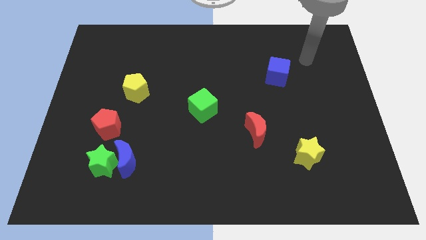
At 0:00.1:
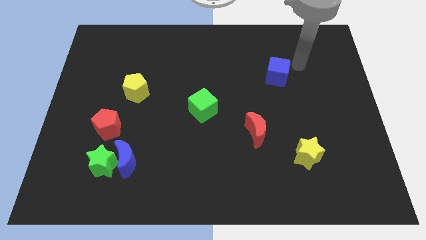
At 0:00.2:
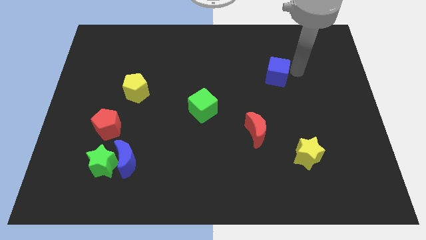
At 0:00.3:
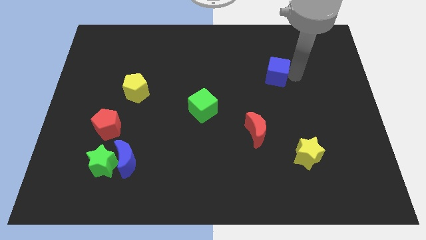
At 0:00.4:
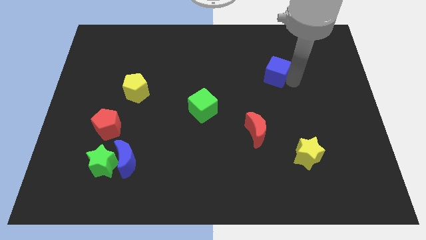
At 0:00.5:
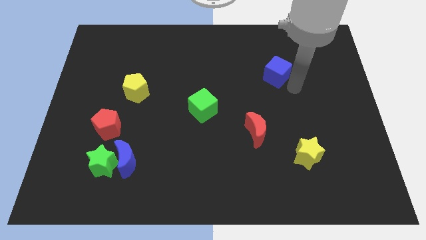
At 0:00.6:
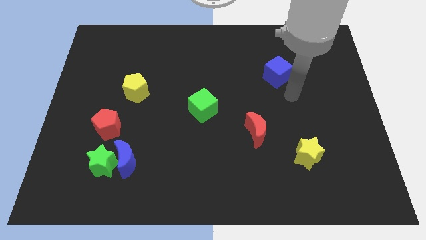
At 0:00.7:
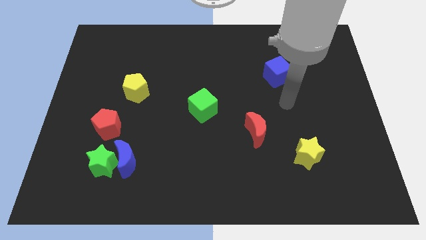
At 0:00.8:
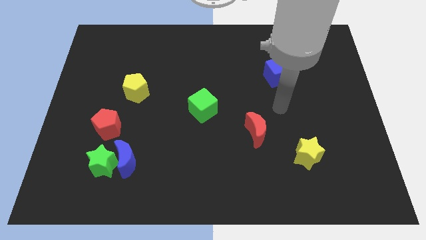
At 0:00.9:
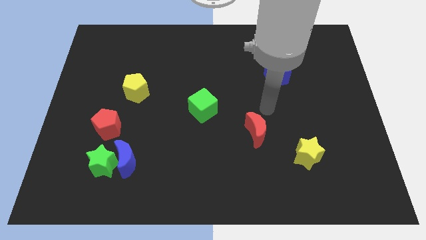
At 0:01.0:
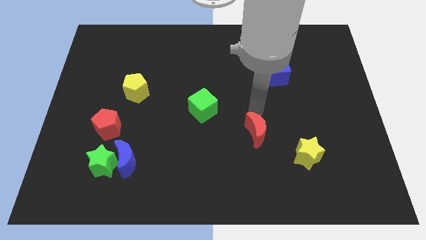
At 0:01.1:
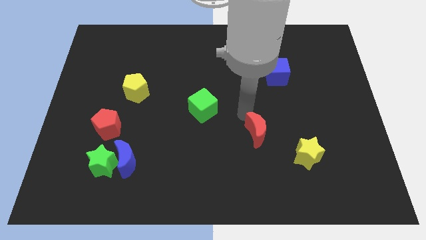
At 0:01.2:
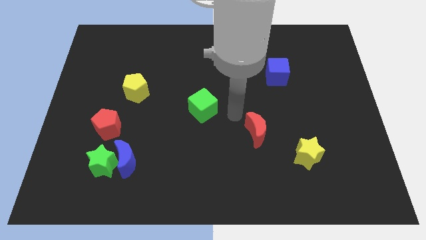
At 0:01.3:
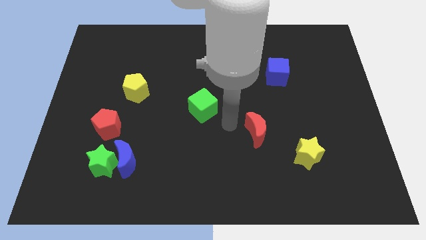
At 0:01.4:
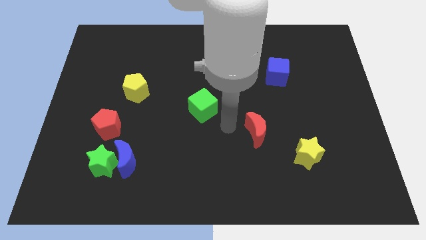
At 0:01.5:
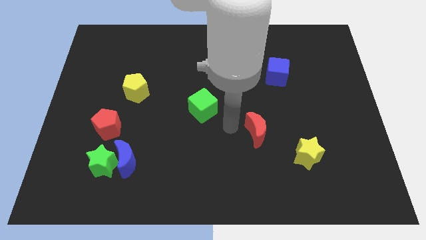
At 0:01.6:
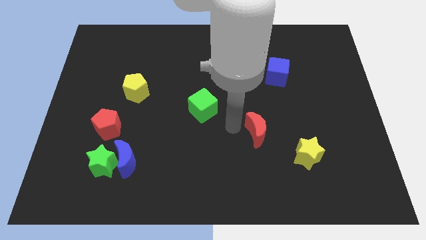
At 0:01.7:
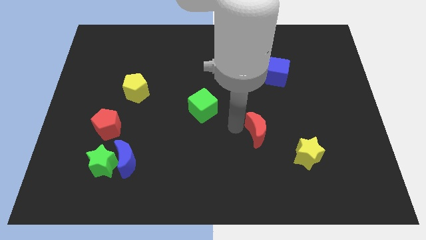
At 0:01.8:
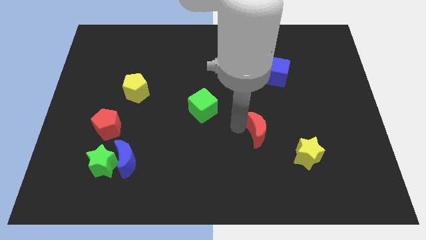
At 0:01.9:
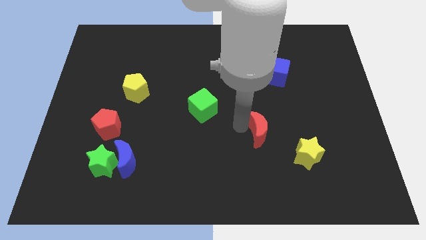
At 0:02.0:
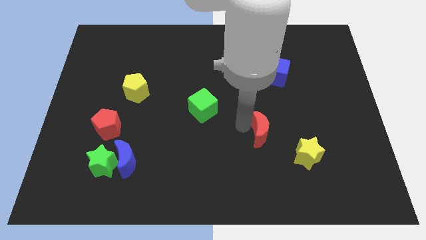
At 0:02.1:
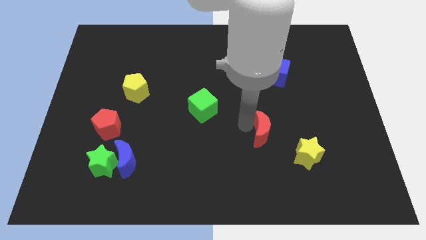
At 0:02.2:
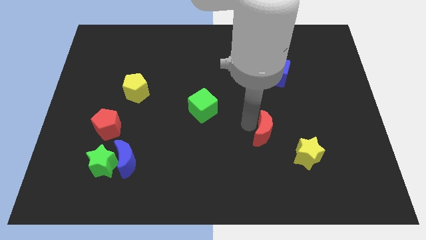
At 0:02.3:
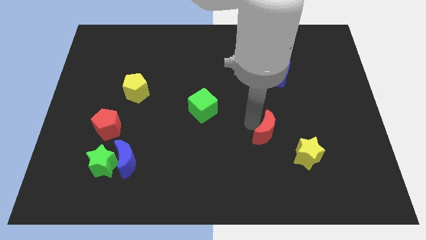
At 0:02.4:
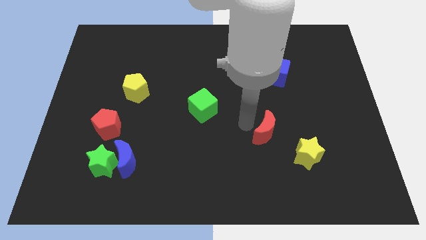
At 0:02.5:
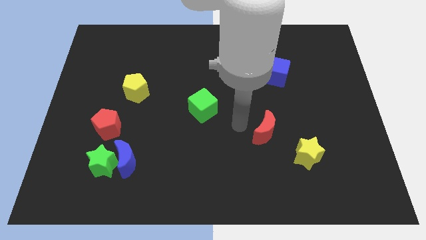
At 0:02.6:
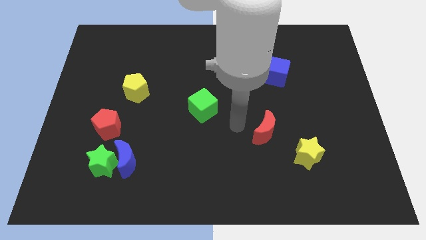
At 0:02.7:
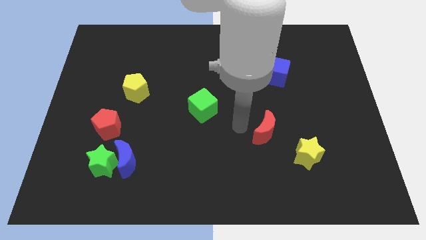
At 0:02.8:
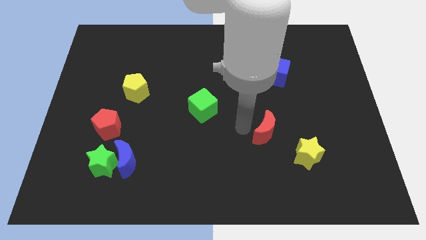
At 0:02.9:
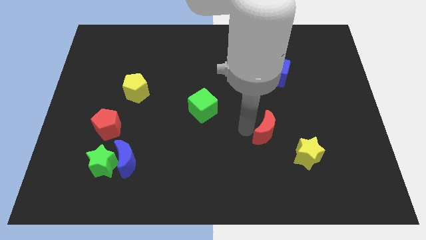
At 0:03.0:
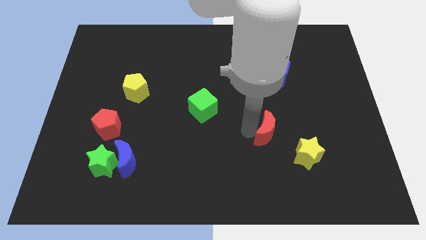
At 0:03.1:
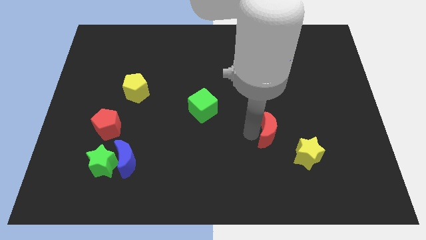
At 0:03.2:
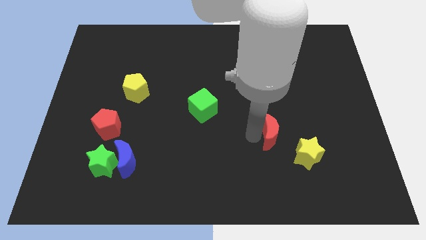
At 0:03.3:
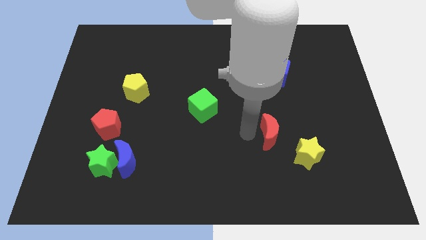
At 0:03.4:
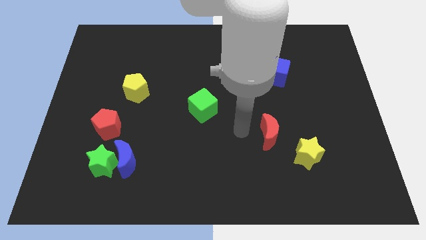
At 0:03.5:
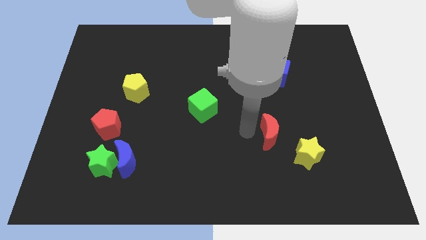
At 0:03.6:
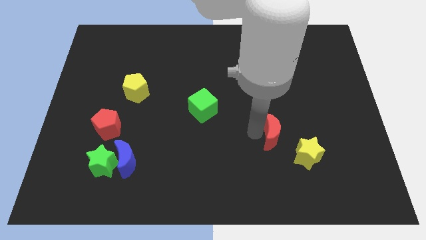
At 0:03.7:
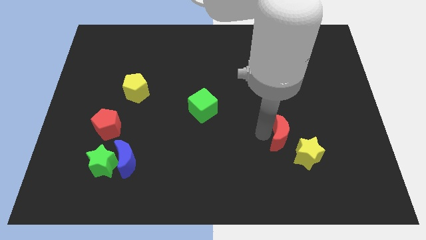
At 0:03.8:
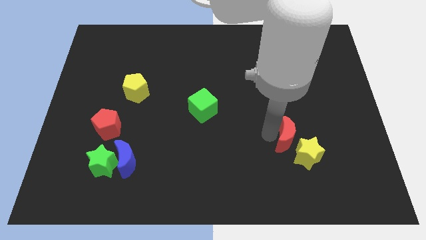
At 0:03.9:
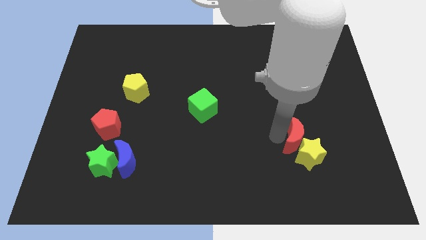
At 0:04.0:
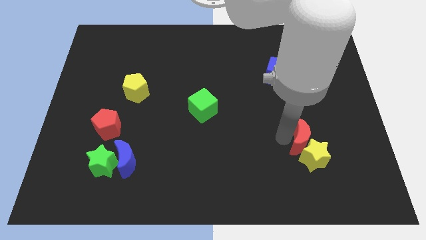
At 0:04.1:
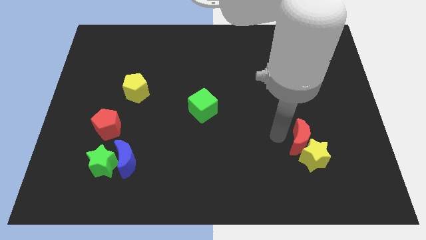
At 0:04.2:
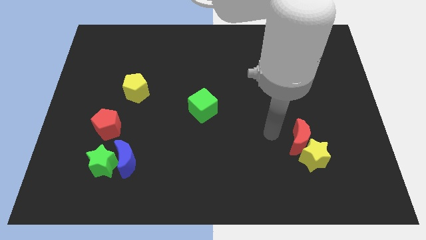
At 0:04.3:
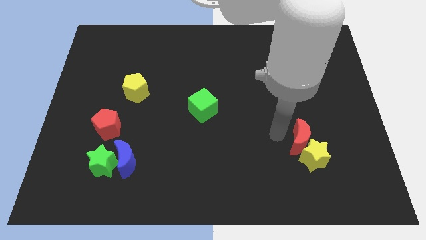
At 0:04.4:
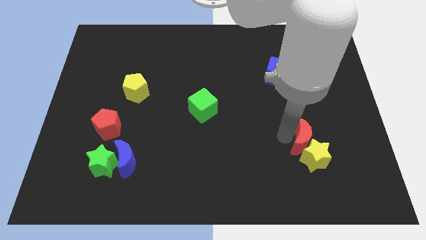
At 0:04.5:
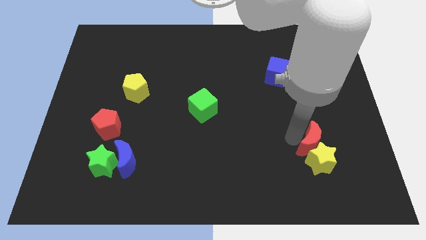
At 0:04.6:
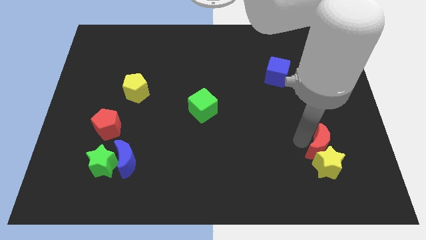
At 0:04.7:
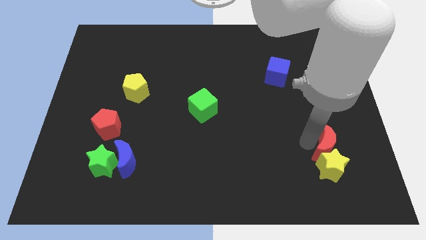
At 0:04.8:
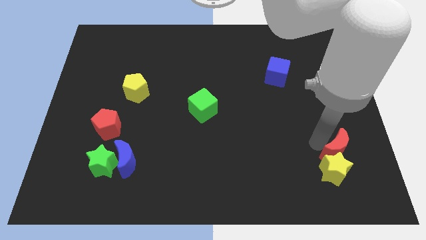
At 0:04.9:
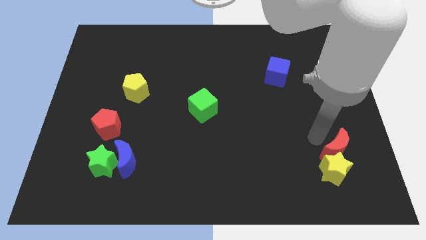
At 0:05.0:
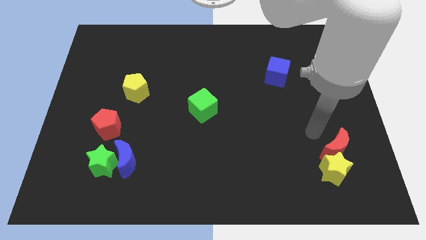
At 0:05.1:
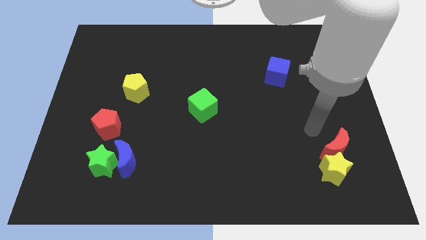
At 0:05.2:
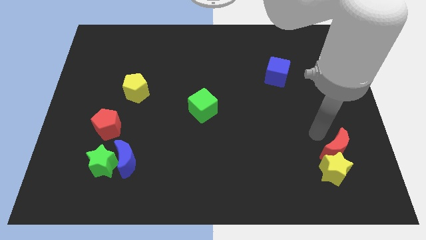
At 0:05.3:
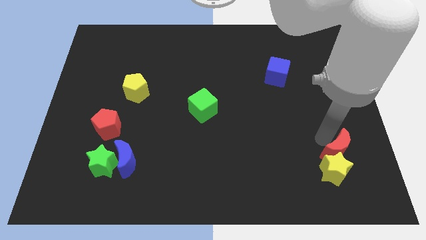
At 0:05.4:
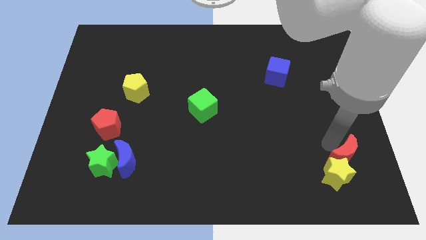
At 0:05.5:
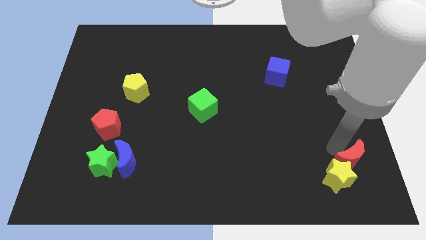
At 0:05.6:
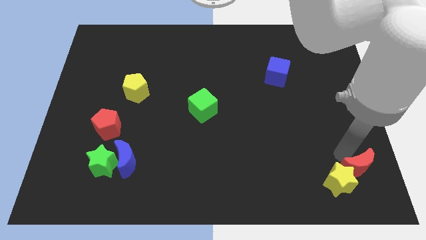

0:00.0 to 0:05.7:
slide the red moon to the lower right corner
